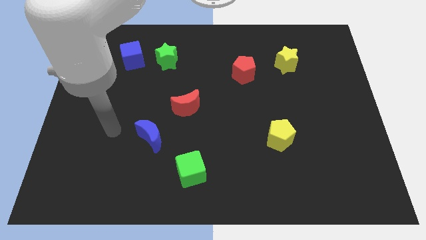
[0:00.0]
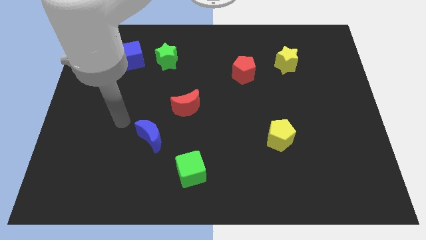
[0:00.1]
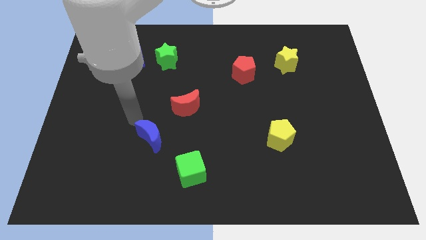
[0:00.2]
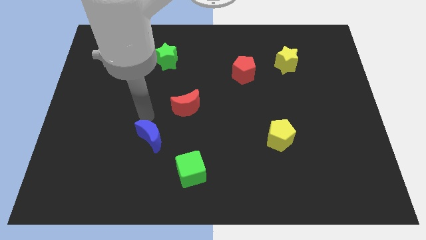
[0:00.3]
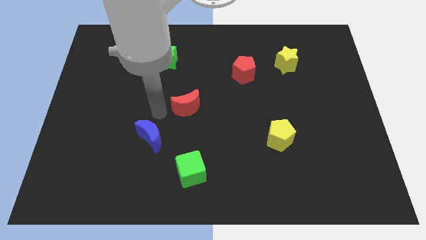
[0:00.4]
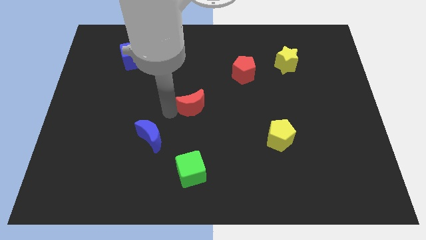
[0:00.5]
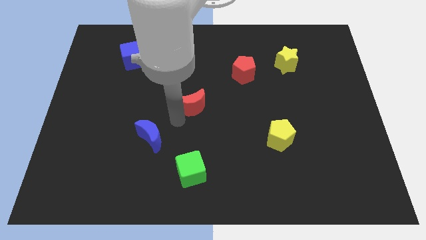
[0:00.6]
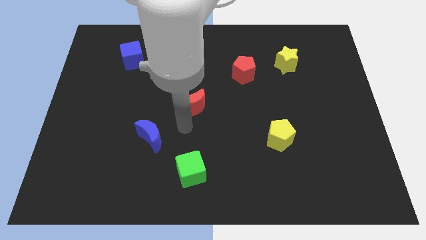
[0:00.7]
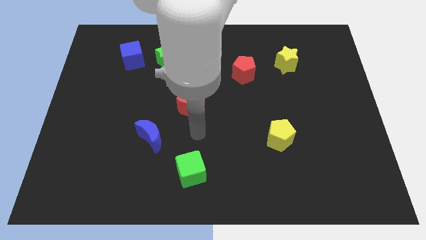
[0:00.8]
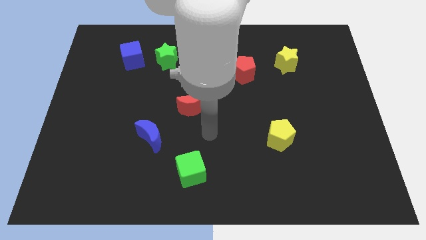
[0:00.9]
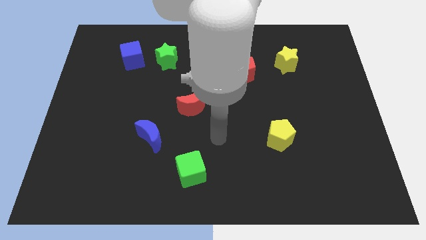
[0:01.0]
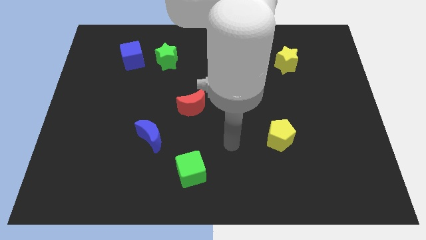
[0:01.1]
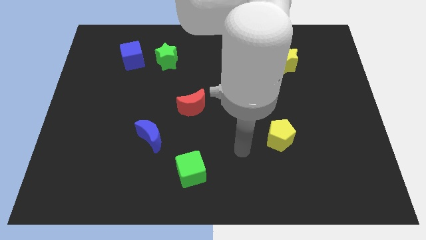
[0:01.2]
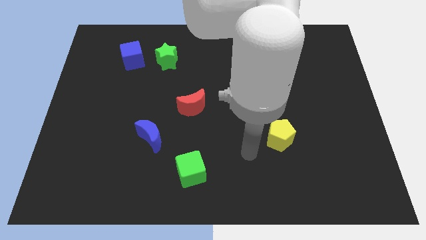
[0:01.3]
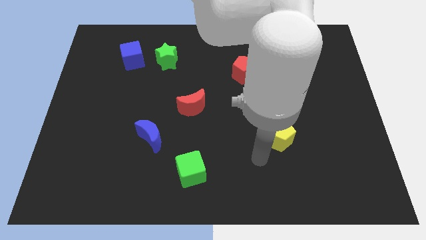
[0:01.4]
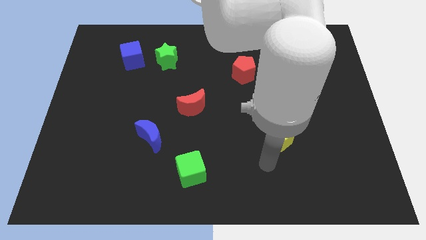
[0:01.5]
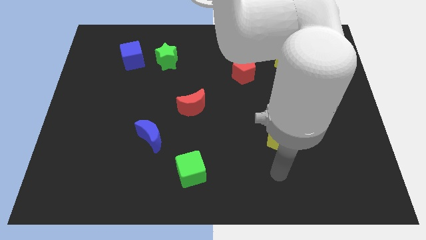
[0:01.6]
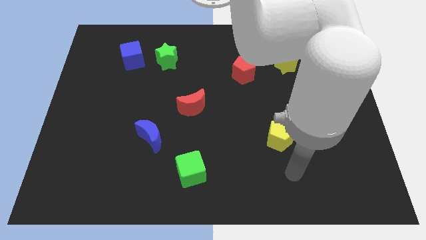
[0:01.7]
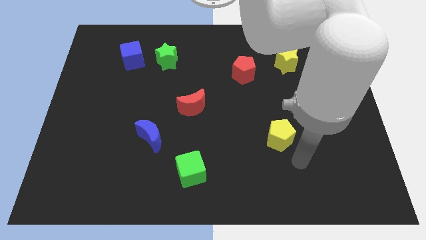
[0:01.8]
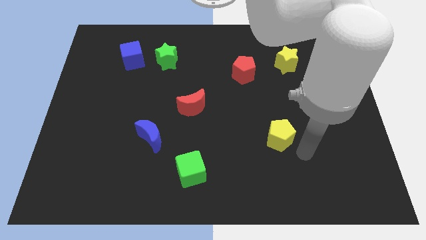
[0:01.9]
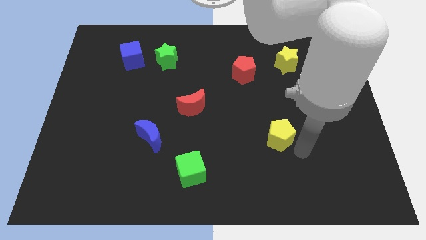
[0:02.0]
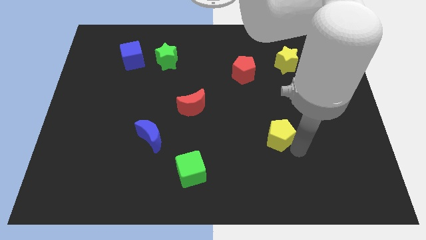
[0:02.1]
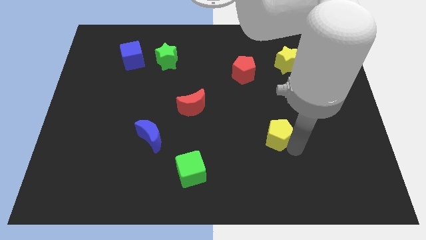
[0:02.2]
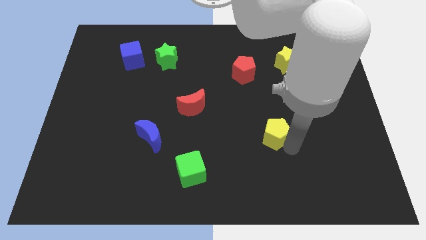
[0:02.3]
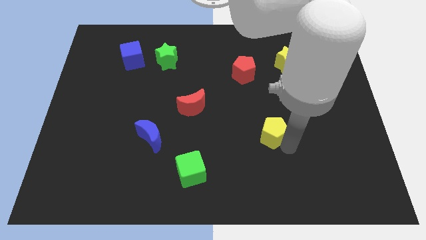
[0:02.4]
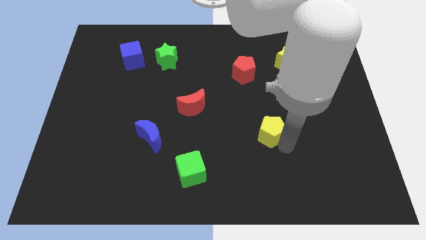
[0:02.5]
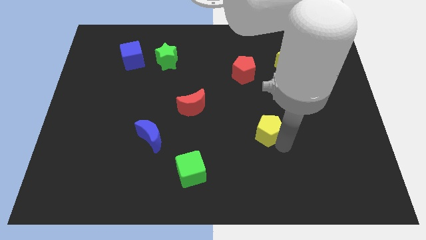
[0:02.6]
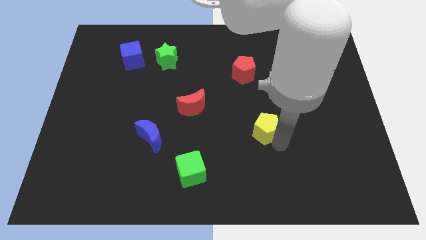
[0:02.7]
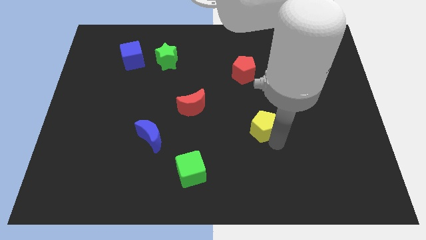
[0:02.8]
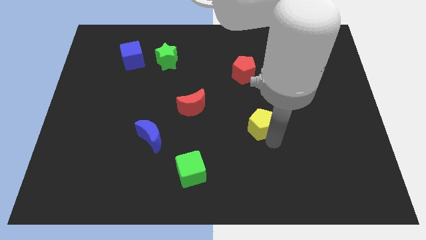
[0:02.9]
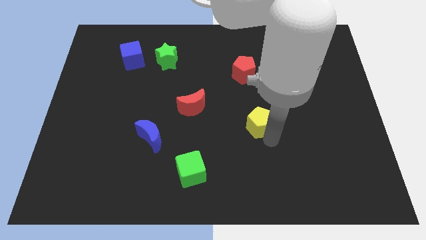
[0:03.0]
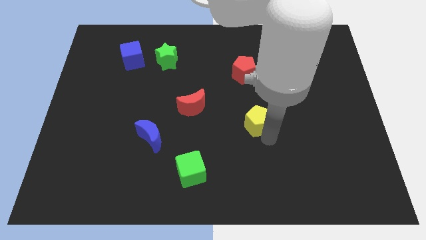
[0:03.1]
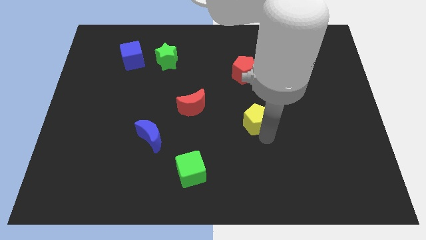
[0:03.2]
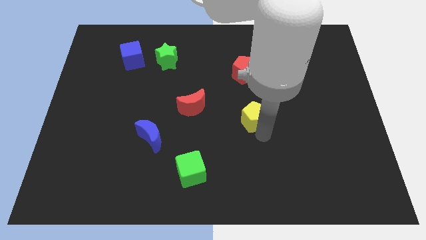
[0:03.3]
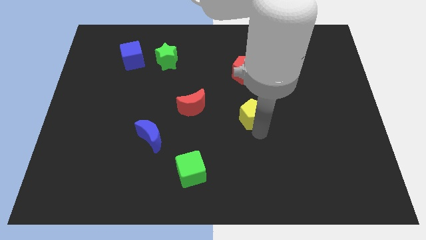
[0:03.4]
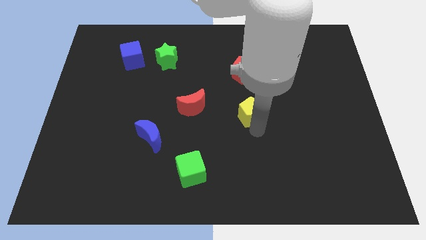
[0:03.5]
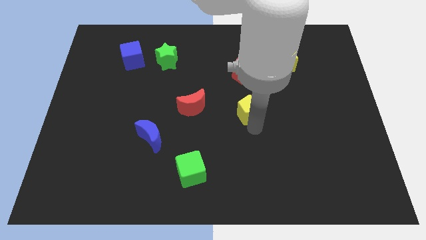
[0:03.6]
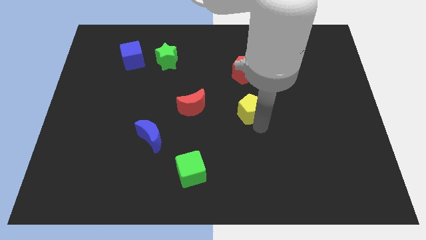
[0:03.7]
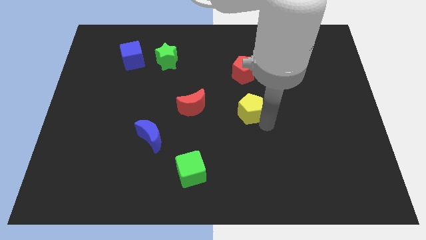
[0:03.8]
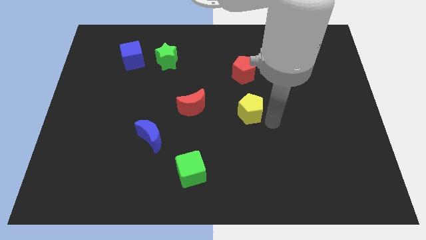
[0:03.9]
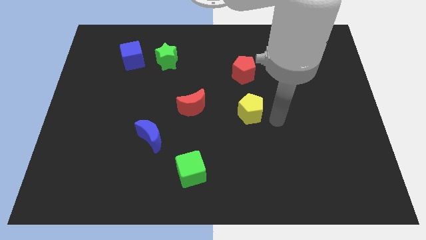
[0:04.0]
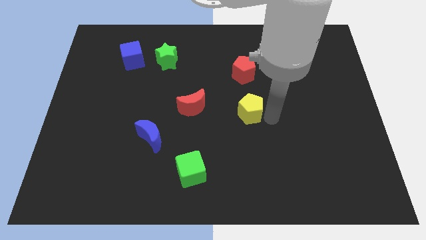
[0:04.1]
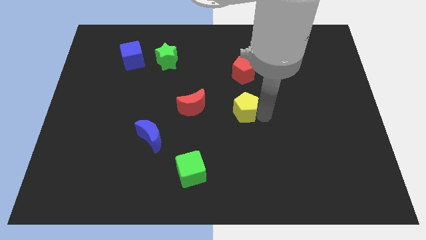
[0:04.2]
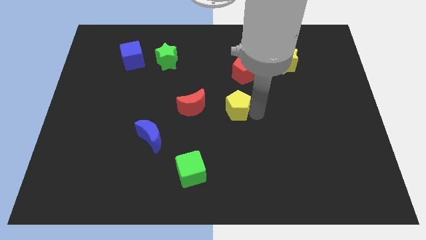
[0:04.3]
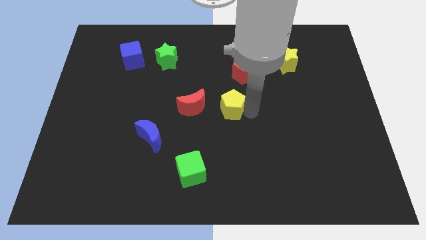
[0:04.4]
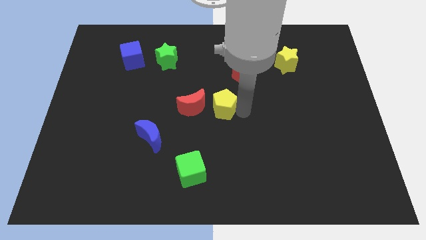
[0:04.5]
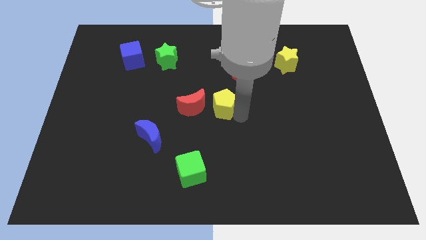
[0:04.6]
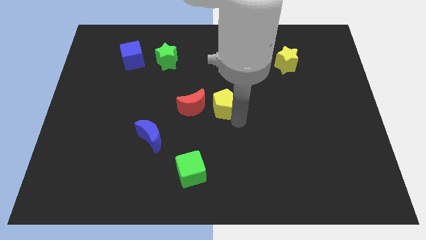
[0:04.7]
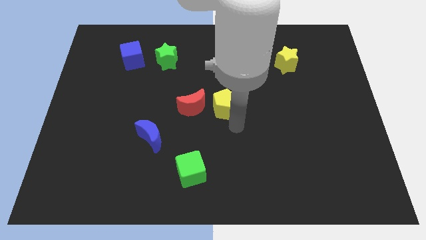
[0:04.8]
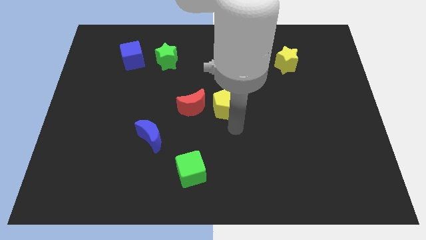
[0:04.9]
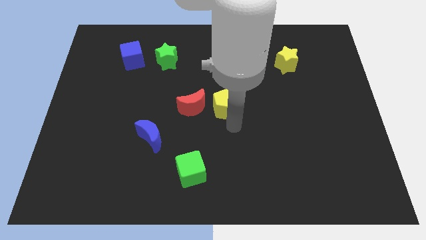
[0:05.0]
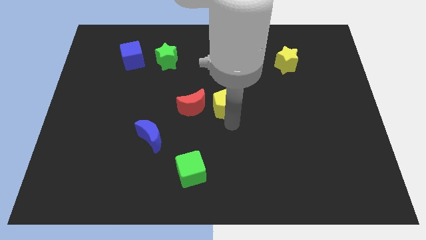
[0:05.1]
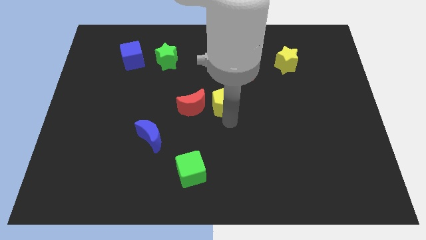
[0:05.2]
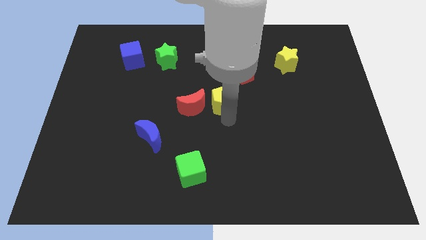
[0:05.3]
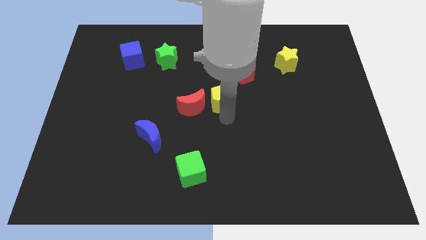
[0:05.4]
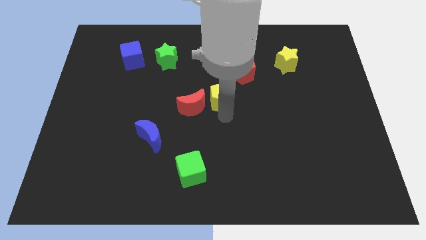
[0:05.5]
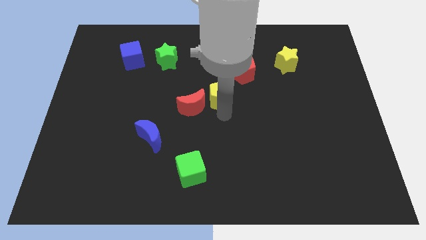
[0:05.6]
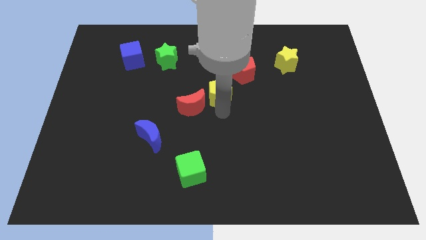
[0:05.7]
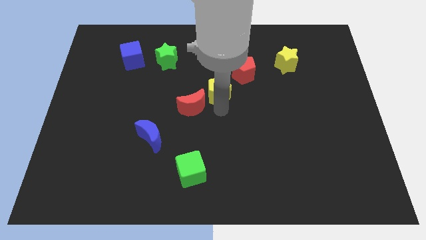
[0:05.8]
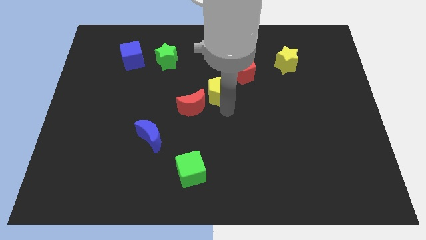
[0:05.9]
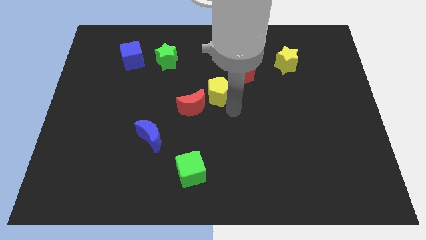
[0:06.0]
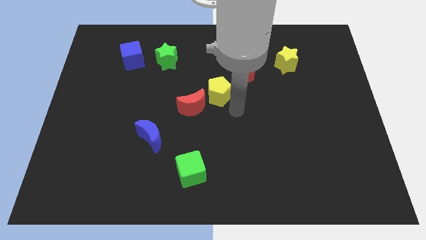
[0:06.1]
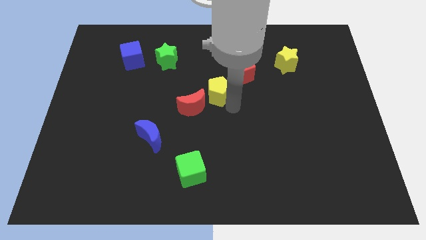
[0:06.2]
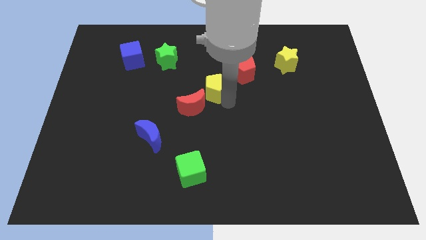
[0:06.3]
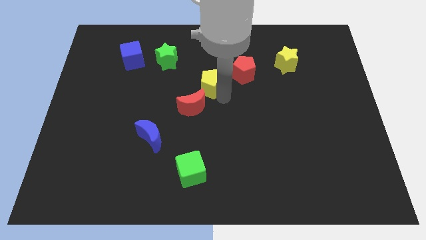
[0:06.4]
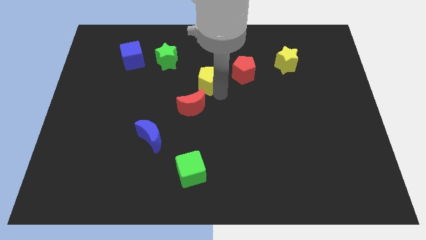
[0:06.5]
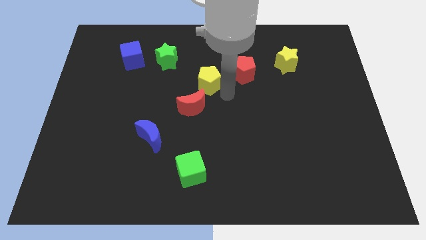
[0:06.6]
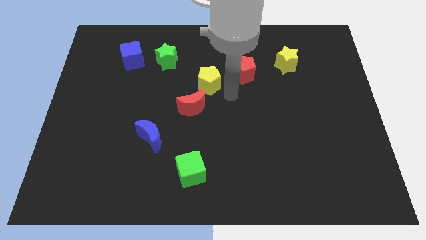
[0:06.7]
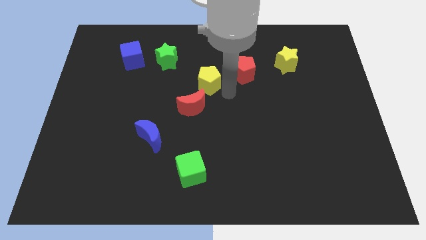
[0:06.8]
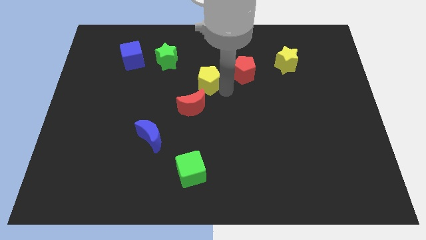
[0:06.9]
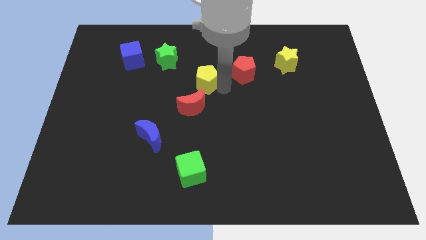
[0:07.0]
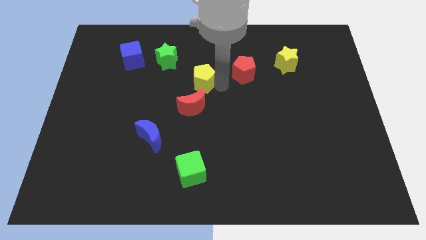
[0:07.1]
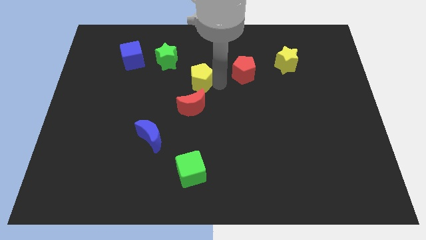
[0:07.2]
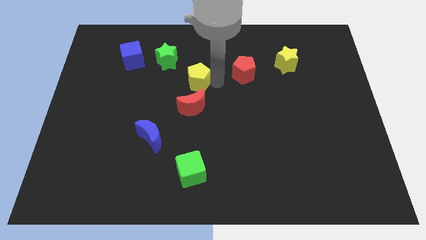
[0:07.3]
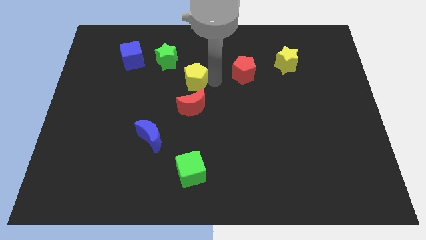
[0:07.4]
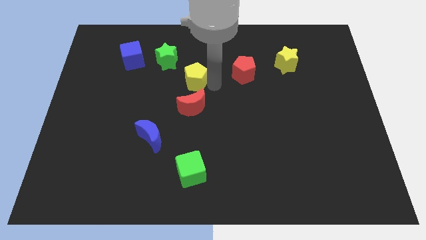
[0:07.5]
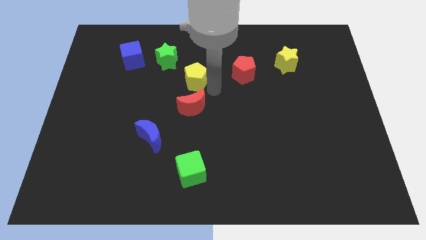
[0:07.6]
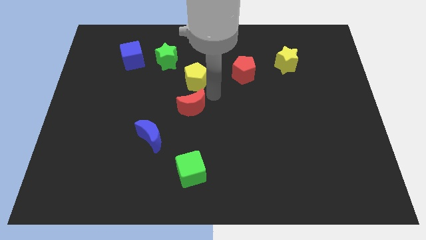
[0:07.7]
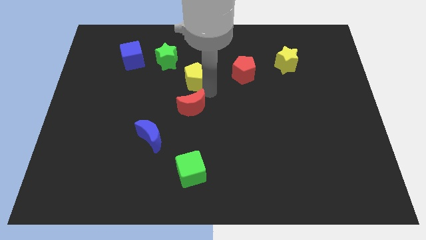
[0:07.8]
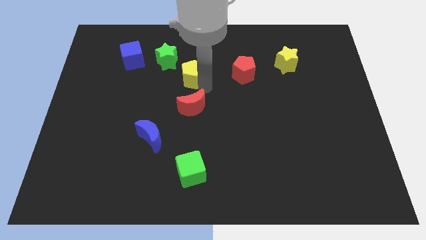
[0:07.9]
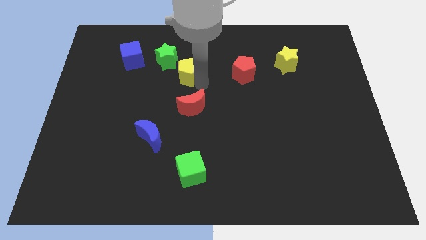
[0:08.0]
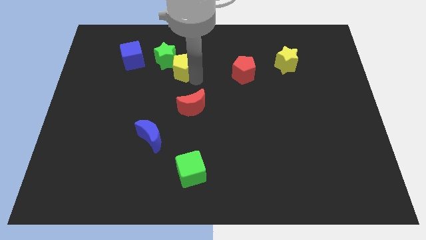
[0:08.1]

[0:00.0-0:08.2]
move the yellow pentagon next to the green star
